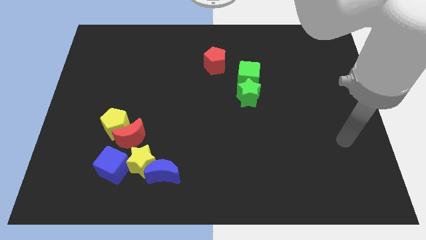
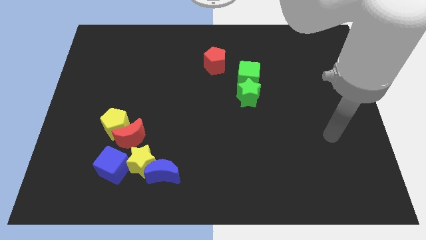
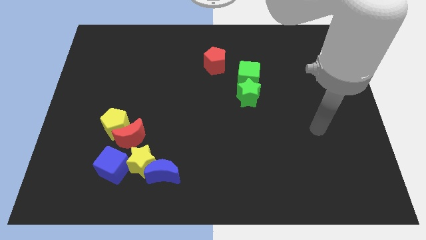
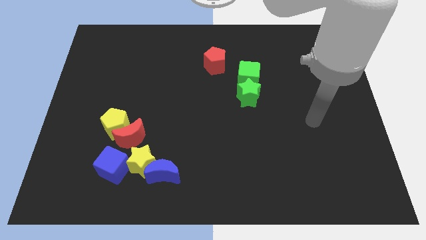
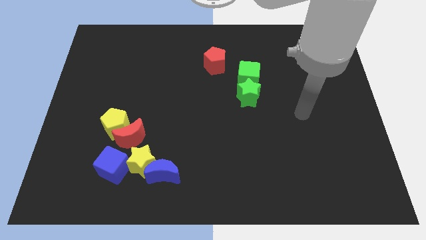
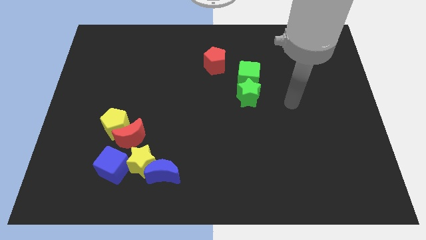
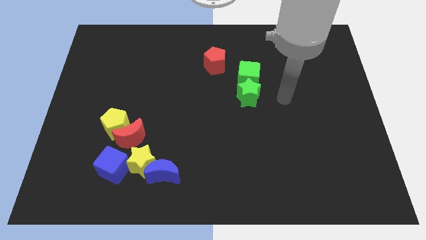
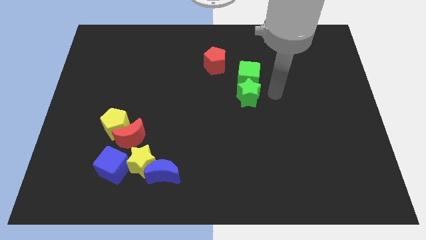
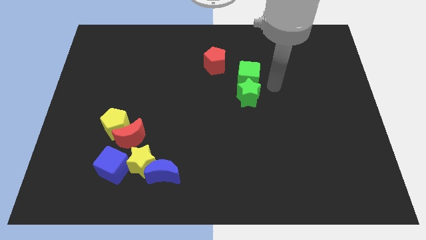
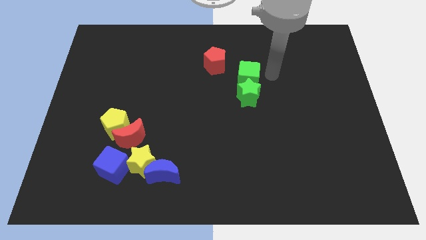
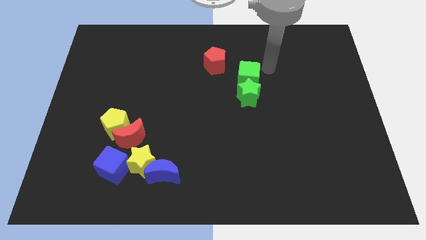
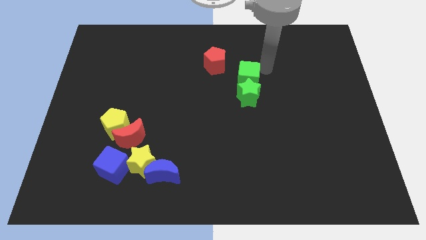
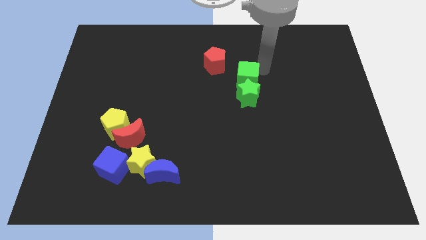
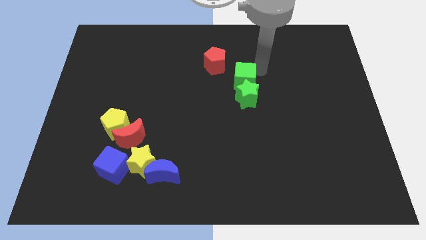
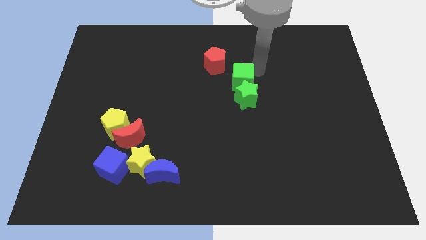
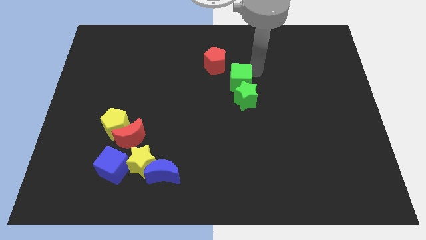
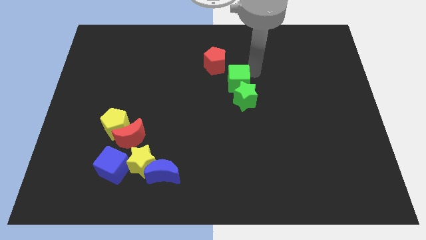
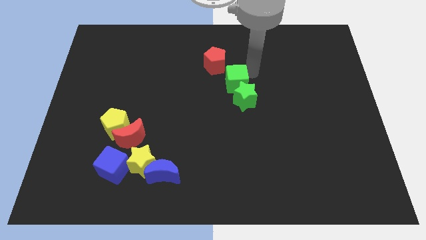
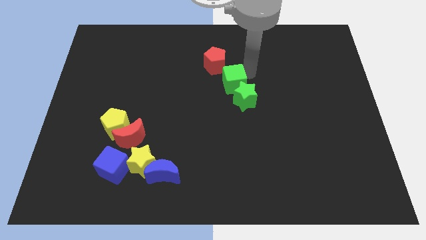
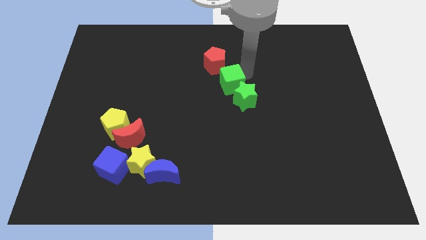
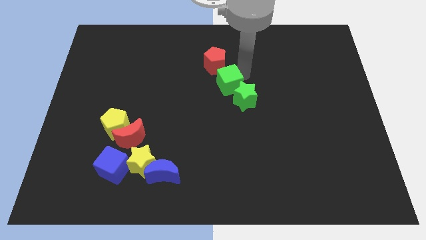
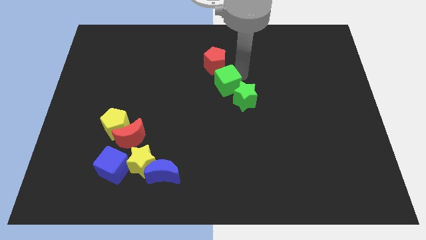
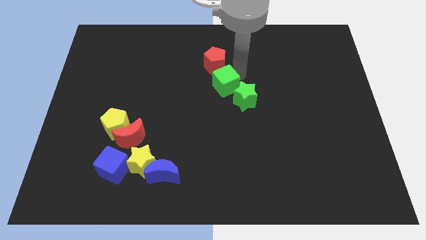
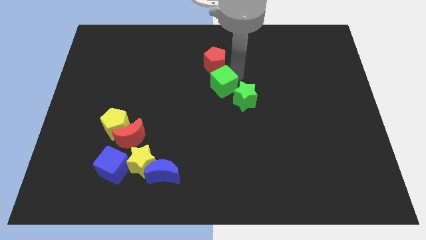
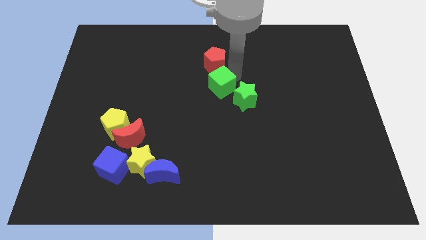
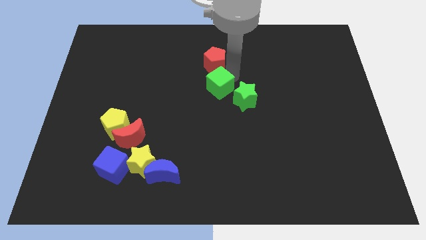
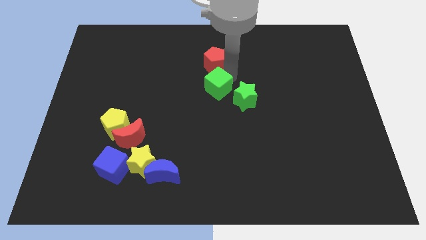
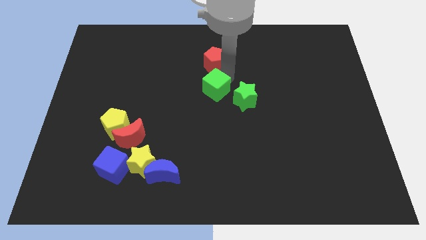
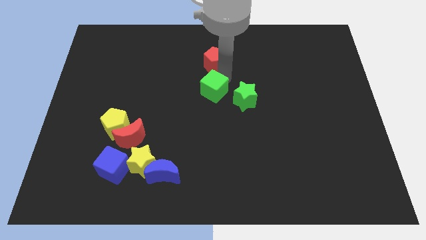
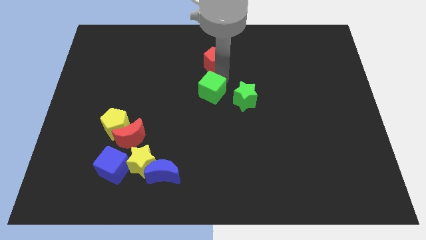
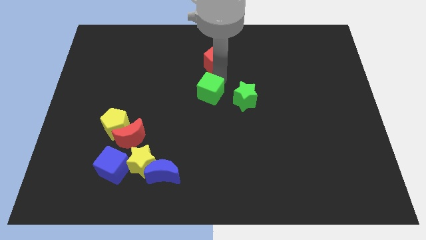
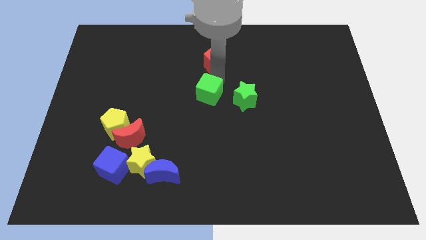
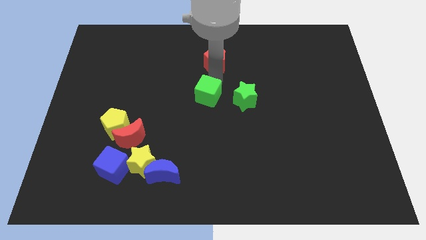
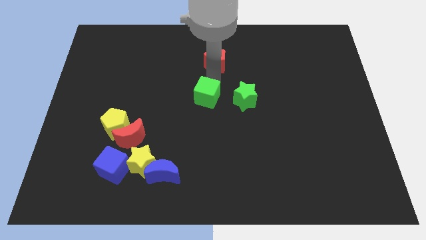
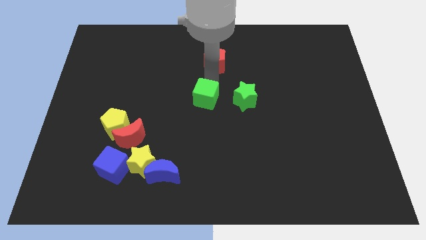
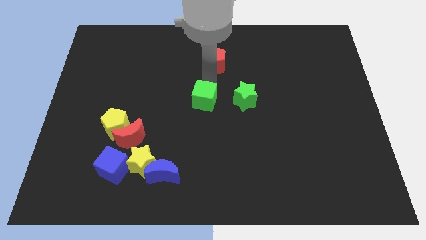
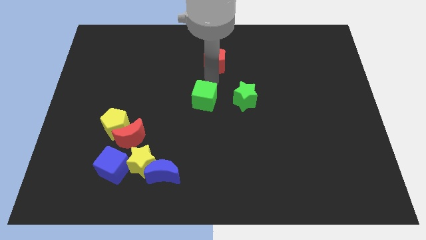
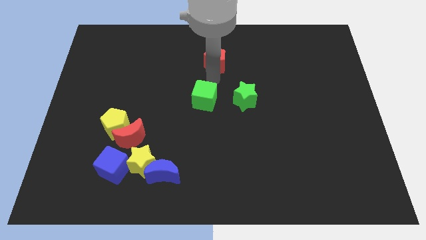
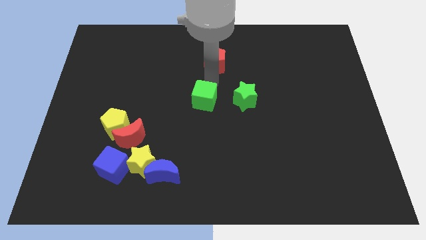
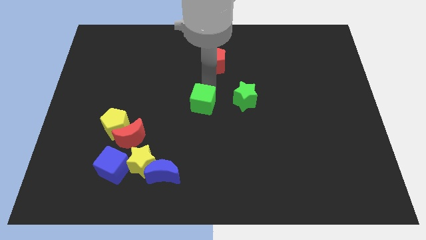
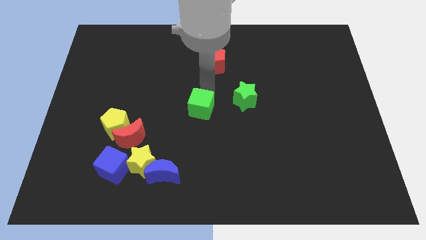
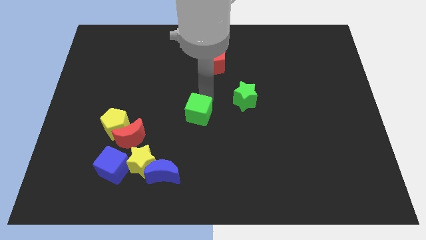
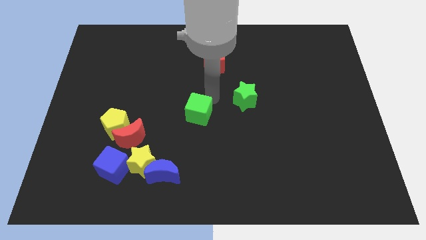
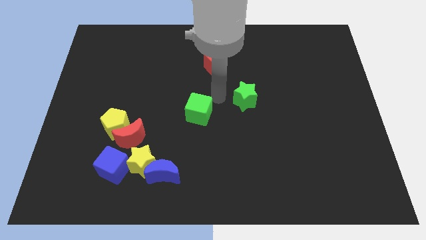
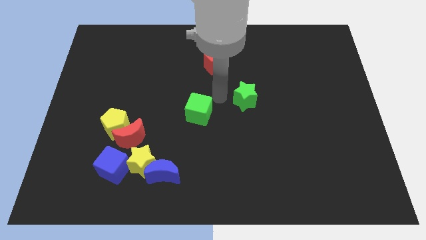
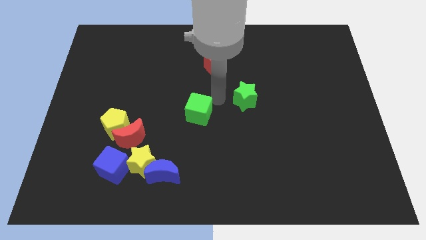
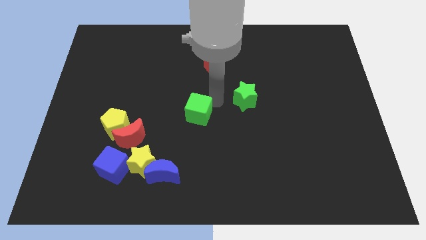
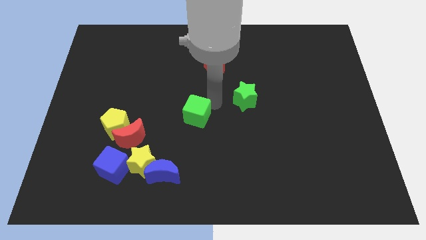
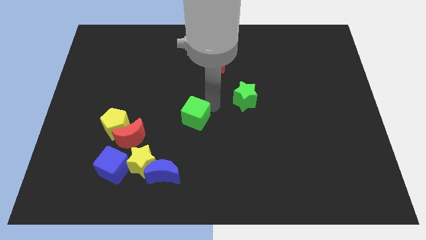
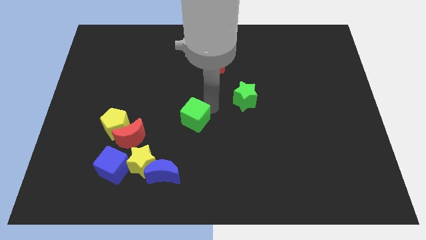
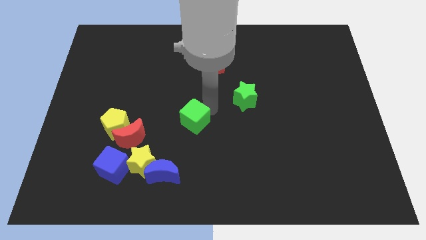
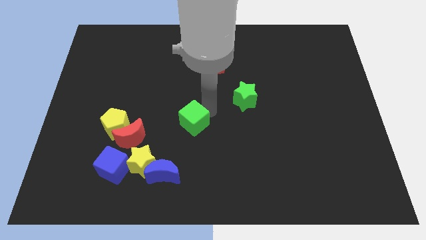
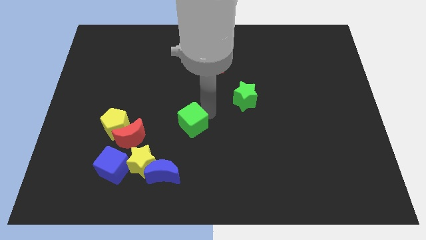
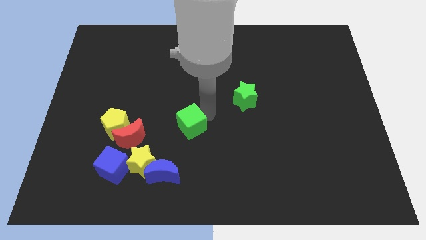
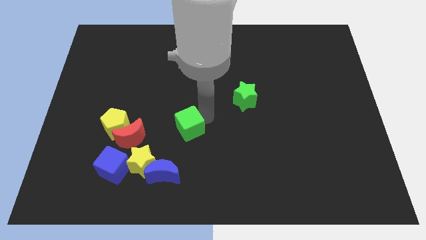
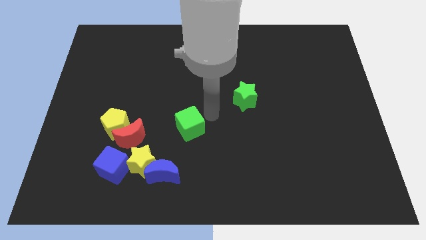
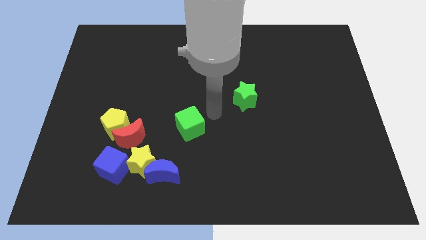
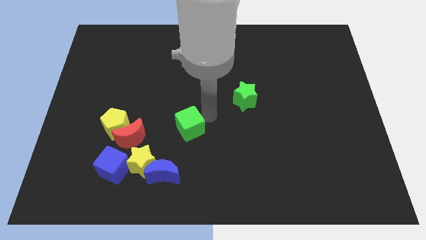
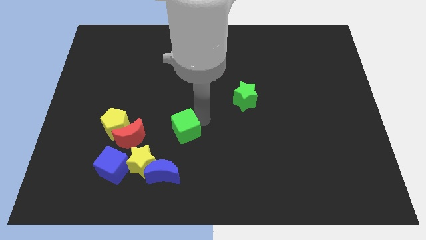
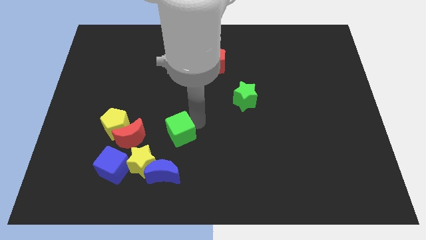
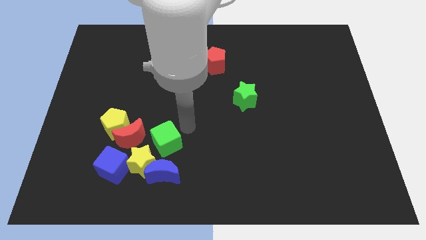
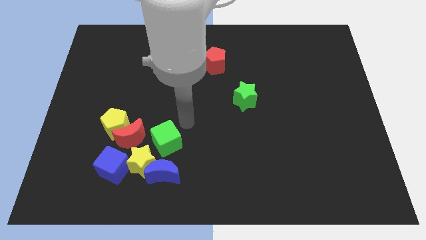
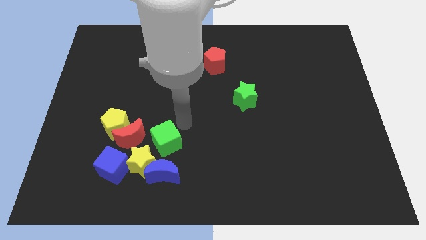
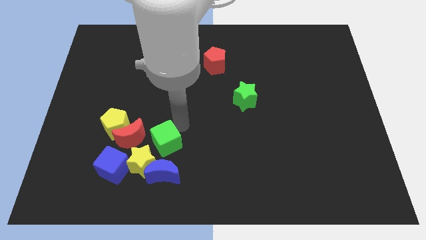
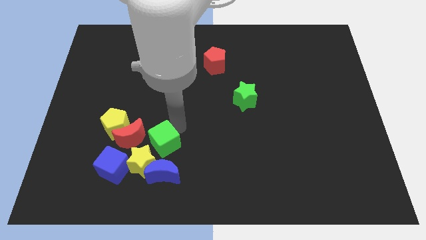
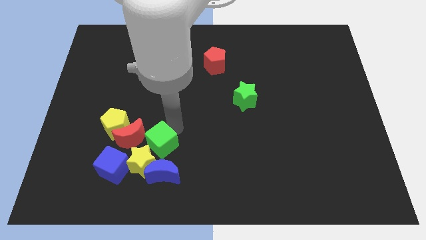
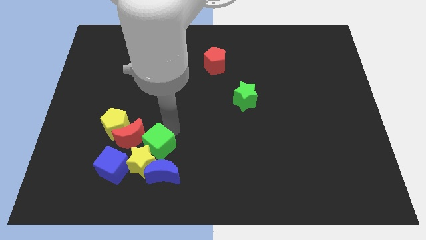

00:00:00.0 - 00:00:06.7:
move the green cube towards the yellow star

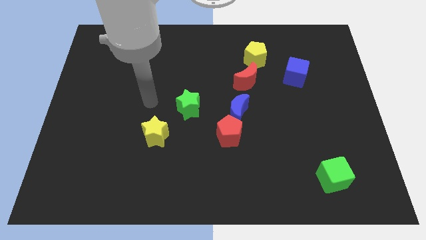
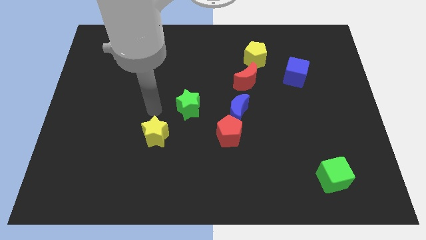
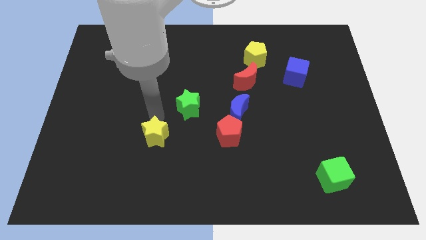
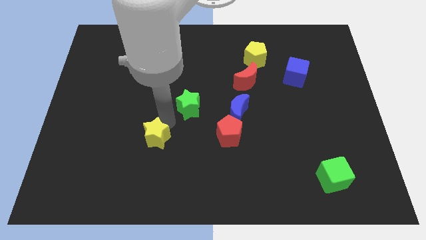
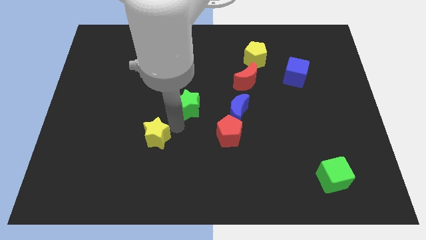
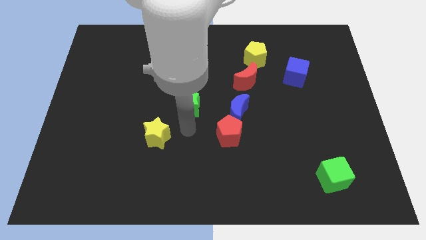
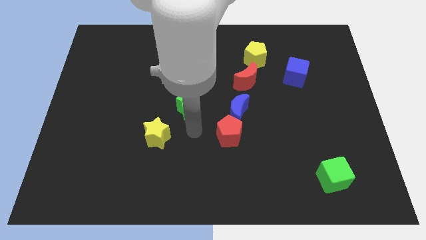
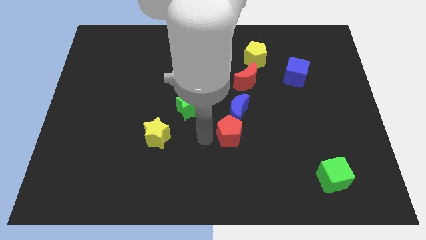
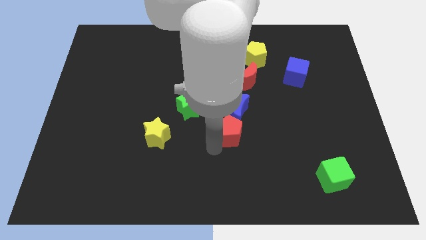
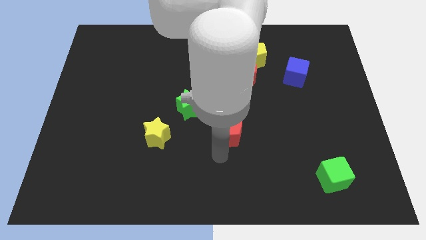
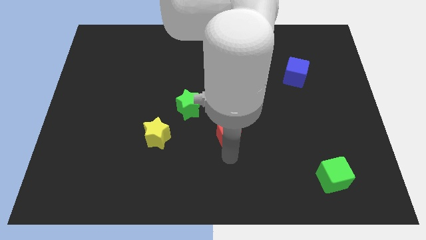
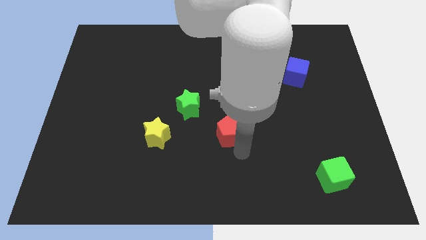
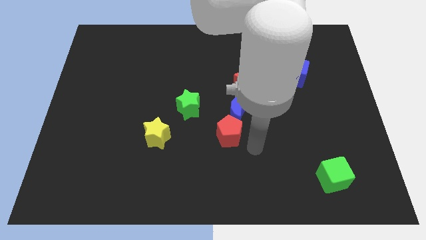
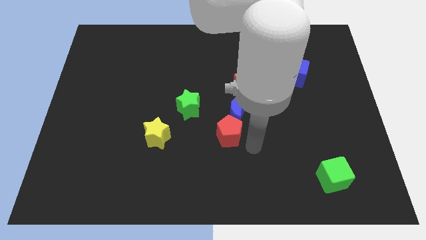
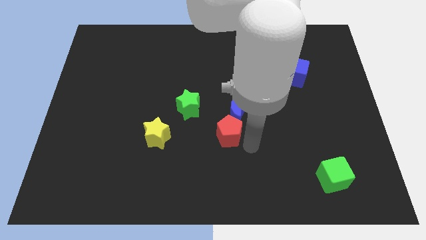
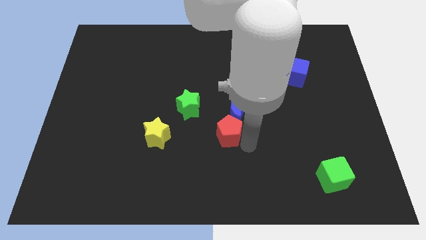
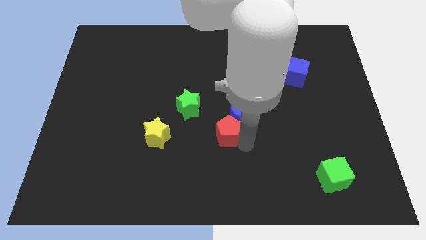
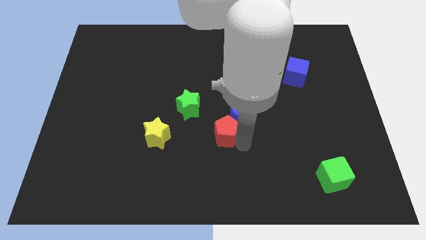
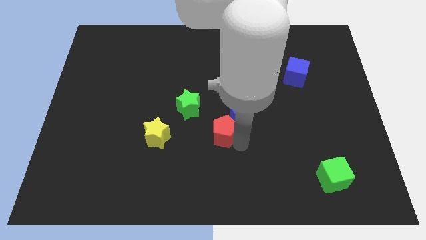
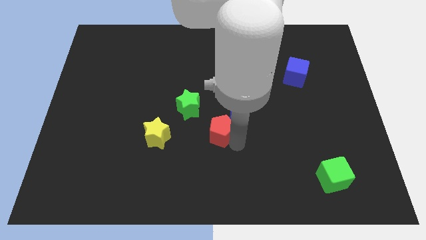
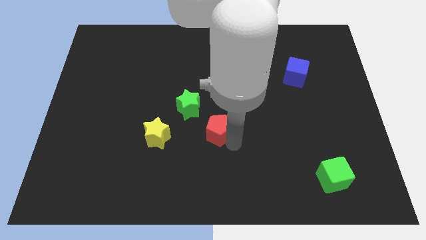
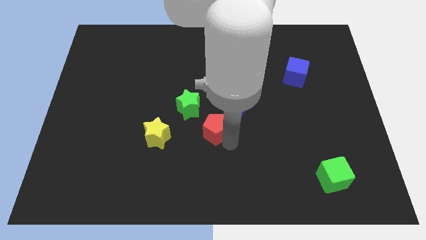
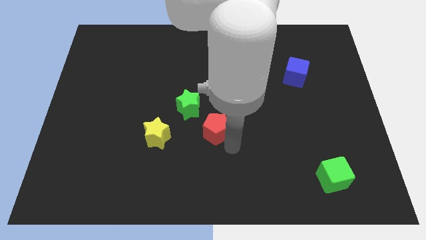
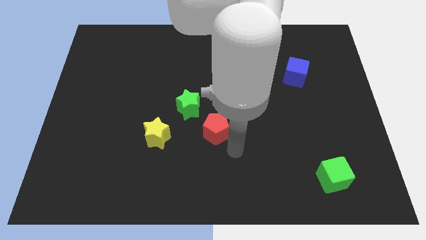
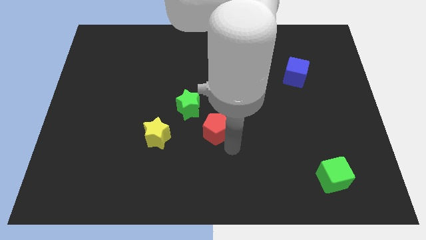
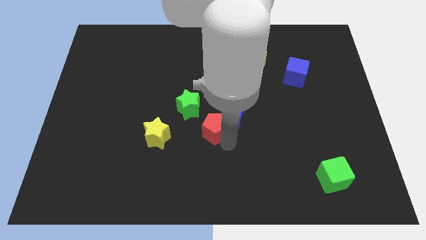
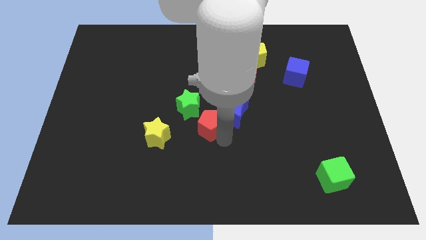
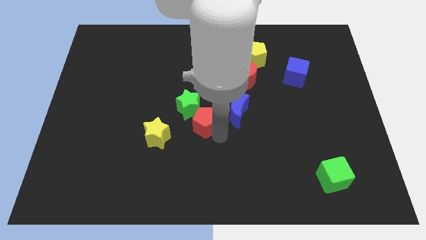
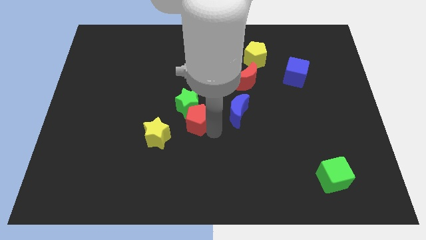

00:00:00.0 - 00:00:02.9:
slide the red pentagon to the green star
